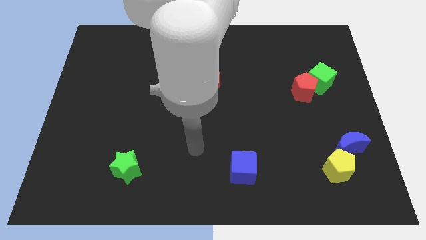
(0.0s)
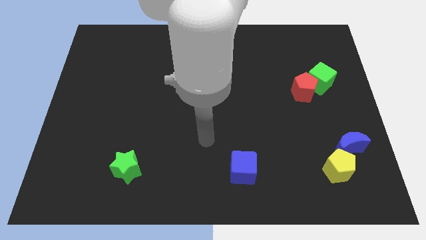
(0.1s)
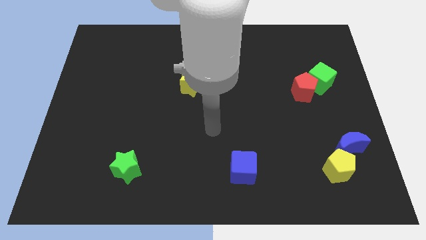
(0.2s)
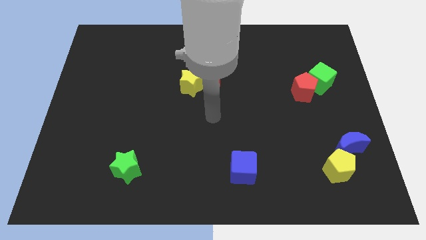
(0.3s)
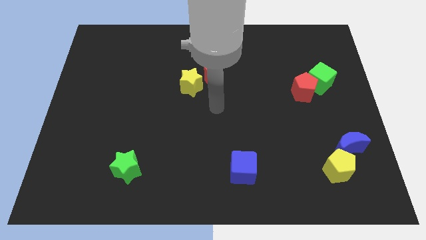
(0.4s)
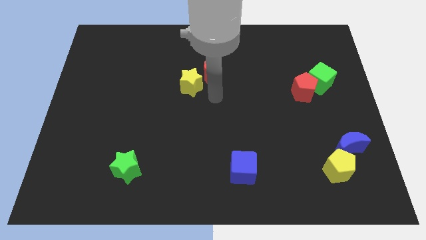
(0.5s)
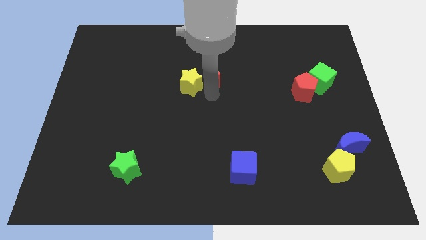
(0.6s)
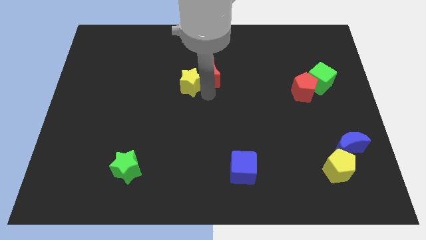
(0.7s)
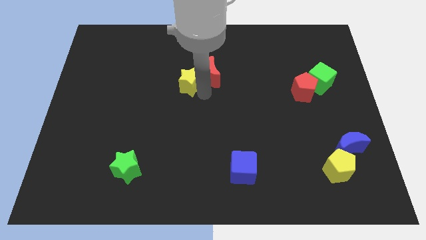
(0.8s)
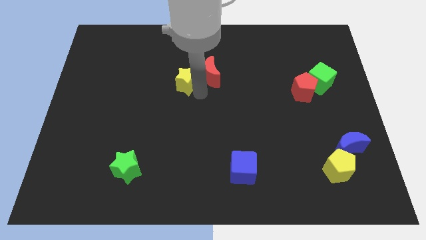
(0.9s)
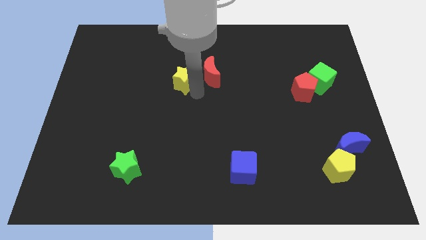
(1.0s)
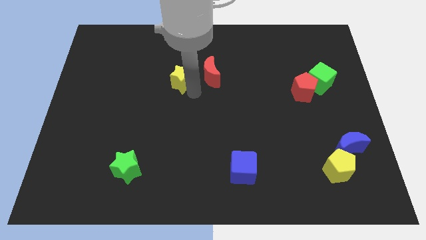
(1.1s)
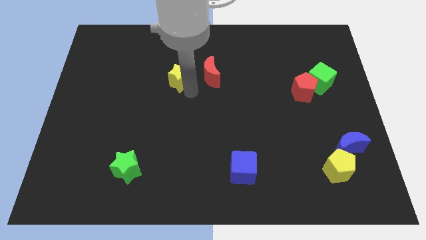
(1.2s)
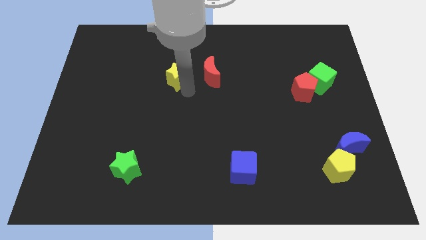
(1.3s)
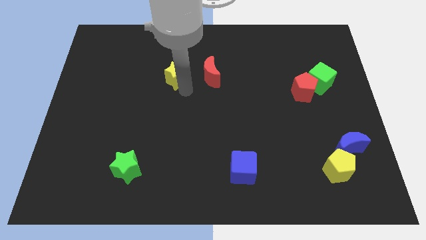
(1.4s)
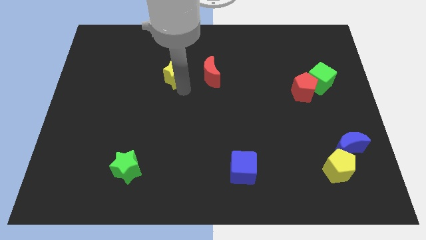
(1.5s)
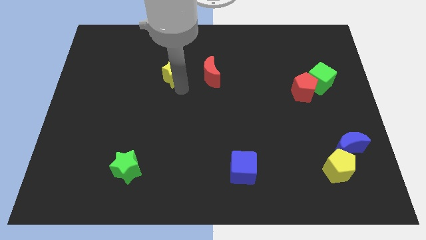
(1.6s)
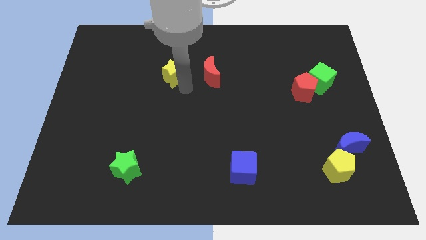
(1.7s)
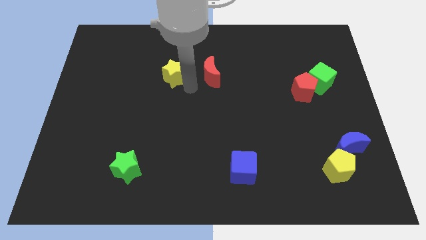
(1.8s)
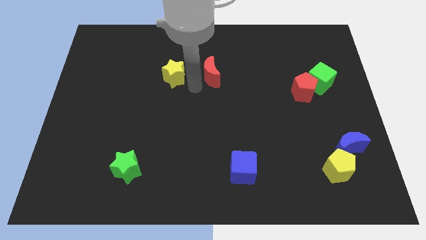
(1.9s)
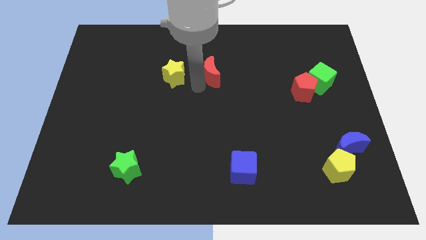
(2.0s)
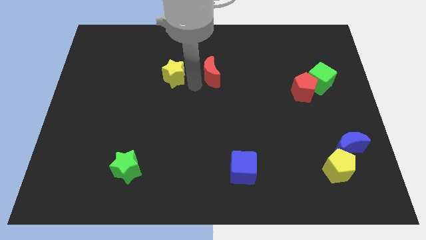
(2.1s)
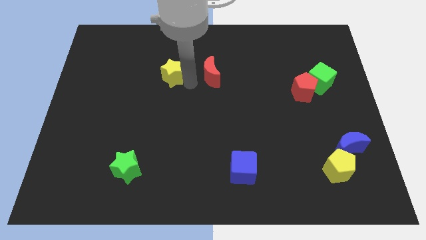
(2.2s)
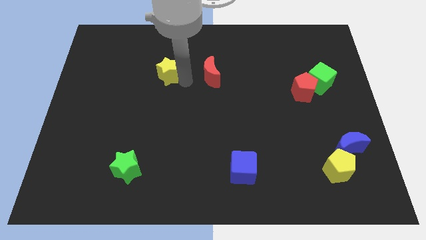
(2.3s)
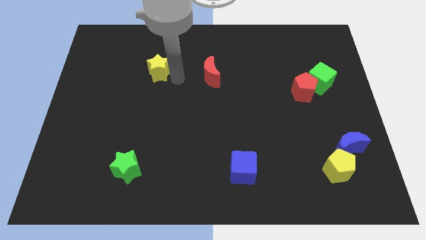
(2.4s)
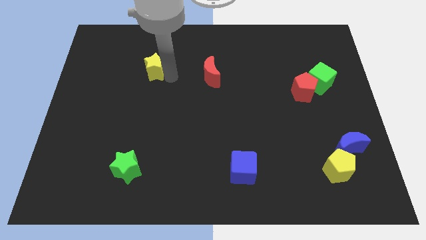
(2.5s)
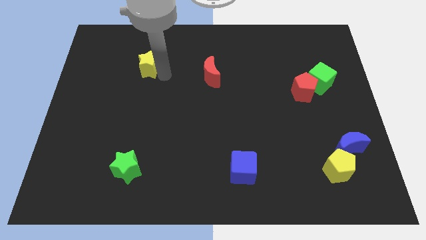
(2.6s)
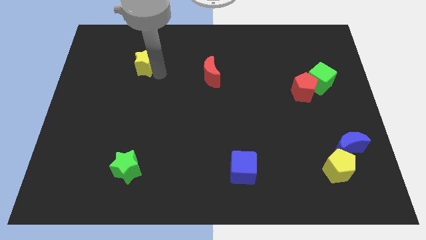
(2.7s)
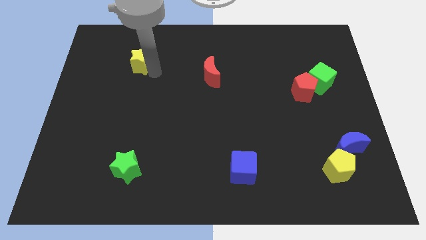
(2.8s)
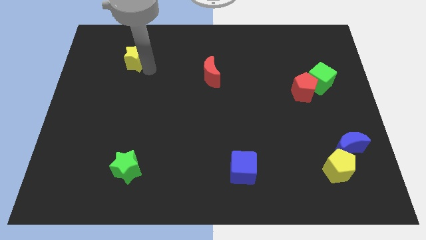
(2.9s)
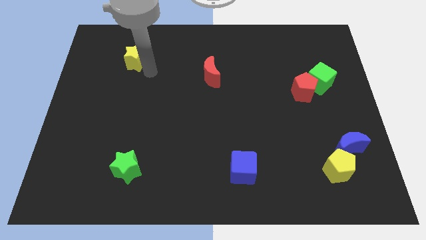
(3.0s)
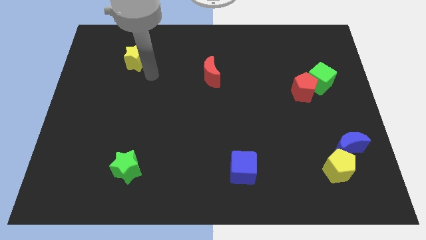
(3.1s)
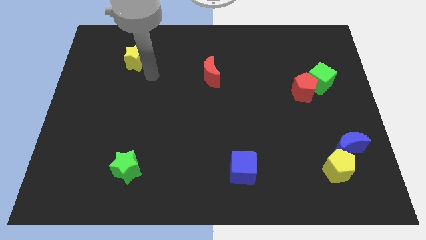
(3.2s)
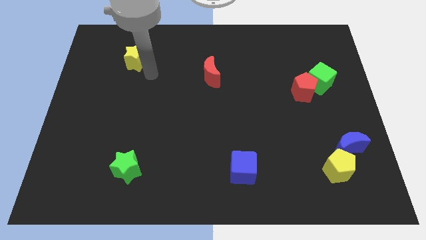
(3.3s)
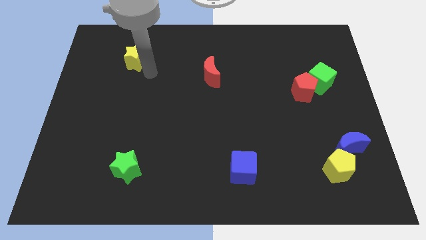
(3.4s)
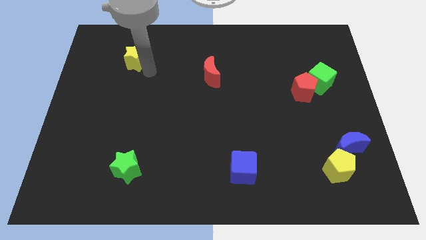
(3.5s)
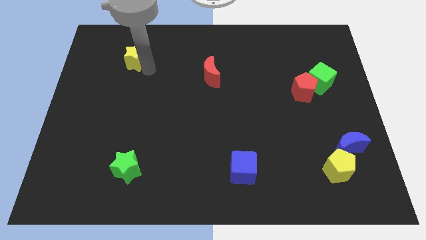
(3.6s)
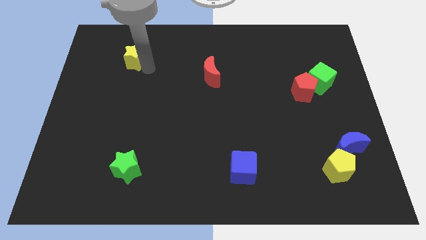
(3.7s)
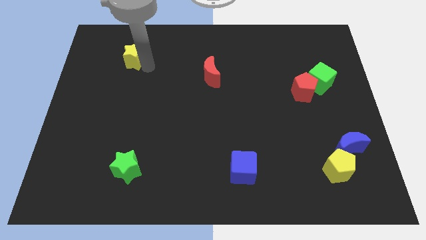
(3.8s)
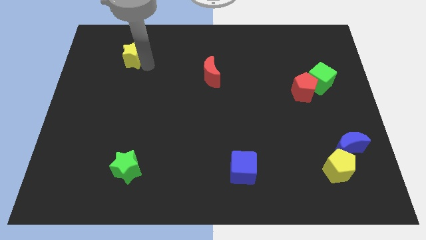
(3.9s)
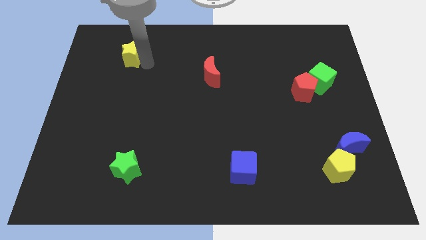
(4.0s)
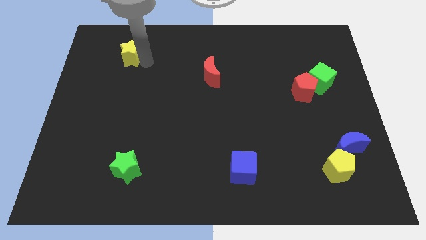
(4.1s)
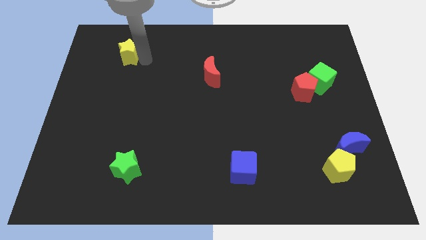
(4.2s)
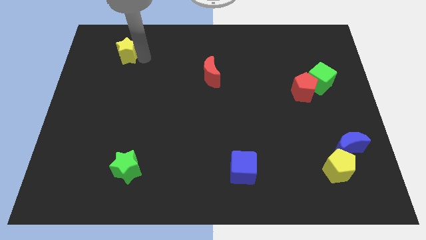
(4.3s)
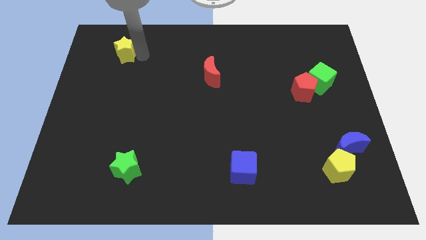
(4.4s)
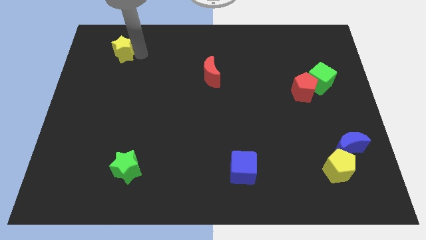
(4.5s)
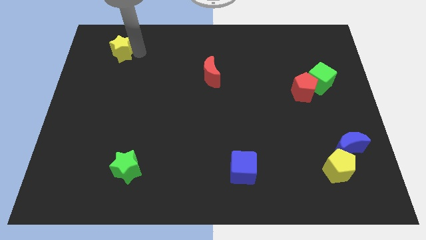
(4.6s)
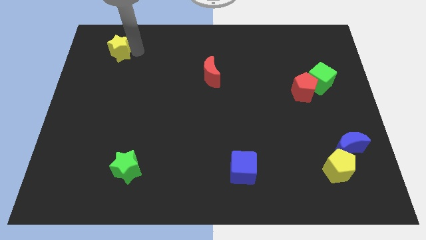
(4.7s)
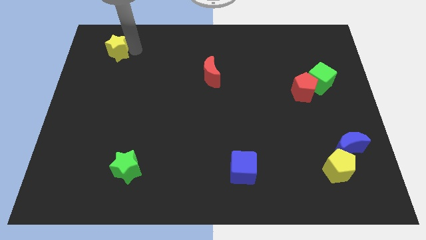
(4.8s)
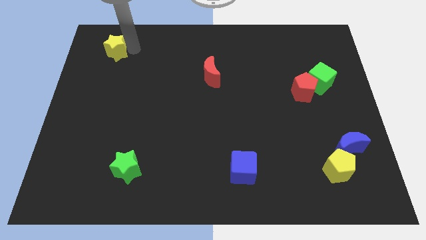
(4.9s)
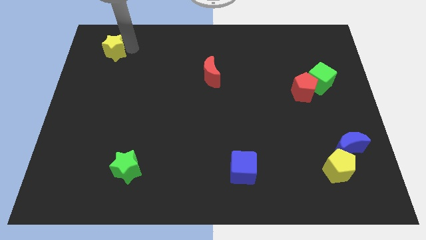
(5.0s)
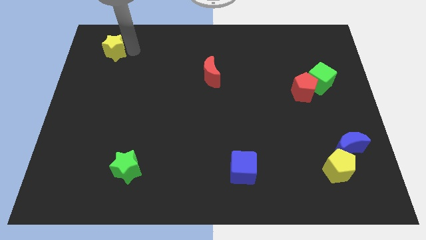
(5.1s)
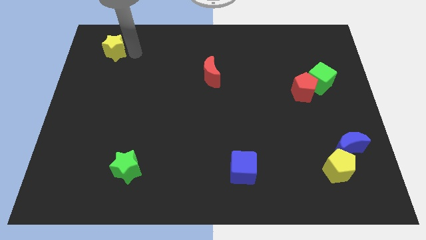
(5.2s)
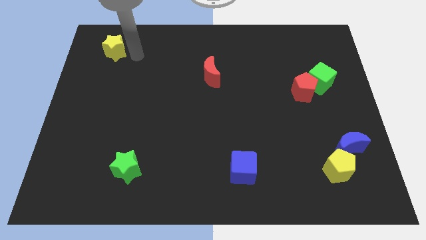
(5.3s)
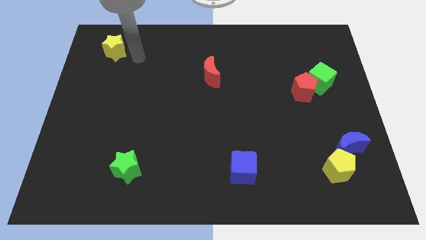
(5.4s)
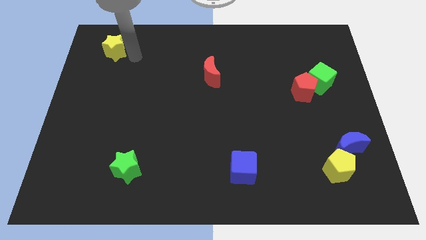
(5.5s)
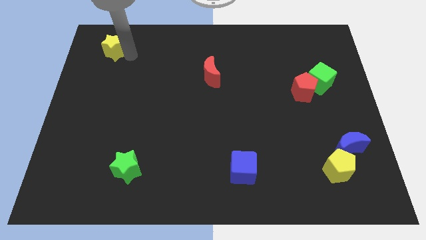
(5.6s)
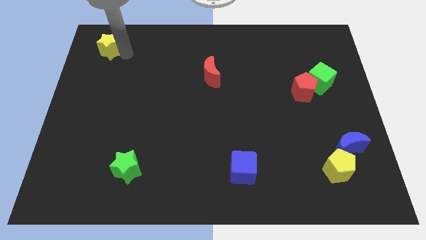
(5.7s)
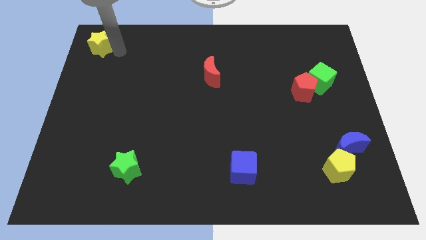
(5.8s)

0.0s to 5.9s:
put the yellow star to the top left corner
